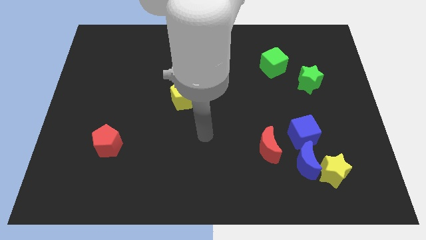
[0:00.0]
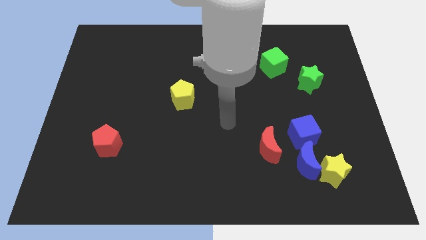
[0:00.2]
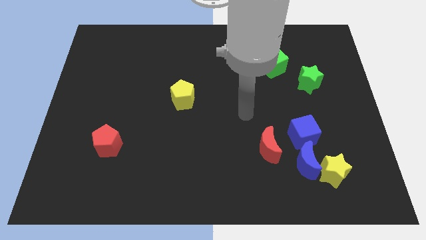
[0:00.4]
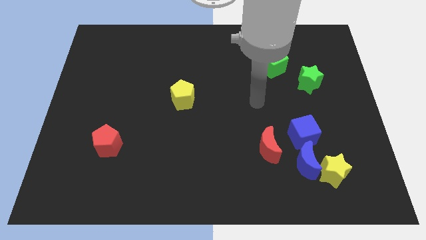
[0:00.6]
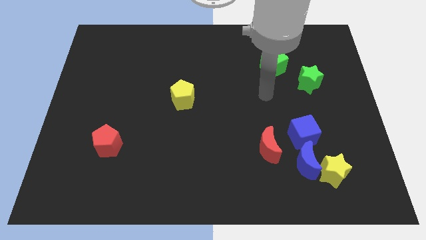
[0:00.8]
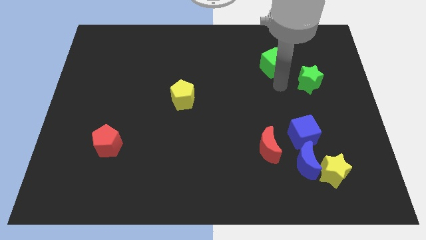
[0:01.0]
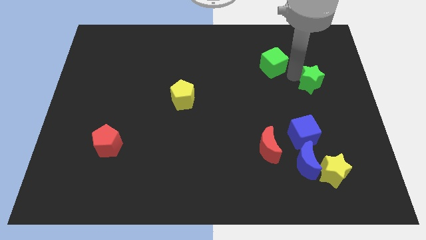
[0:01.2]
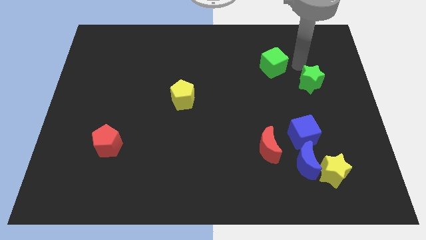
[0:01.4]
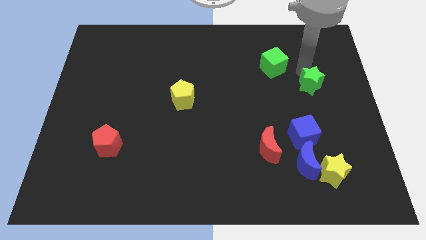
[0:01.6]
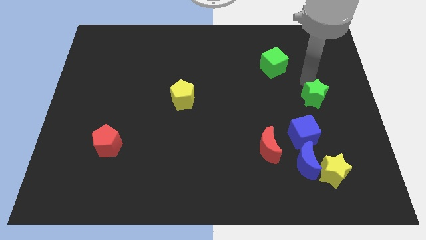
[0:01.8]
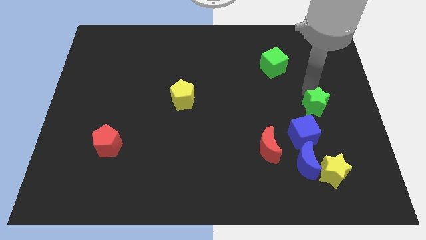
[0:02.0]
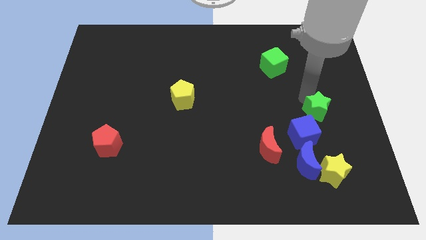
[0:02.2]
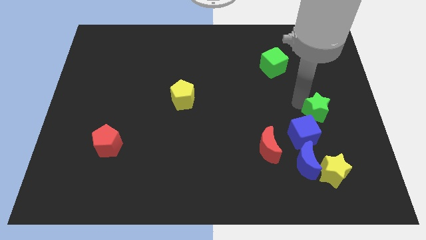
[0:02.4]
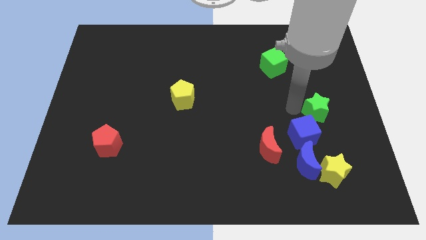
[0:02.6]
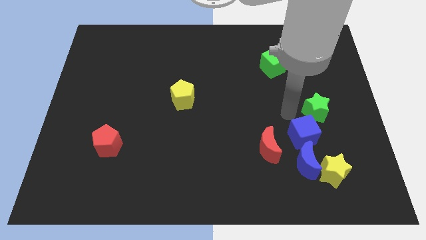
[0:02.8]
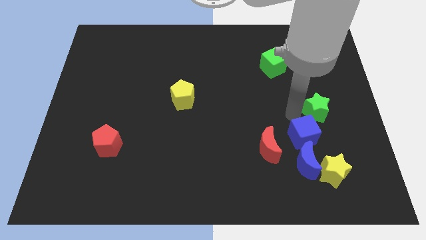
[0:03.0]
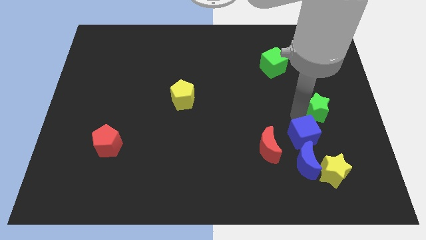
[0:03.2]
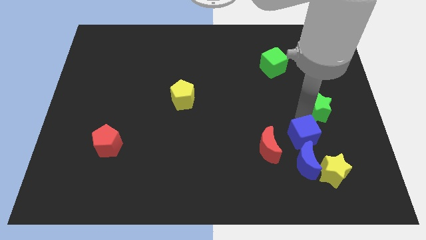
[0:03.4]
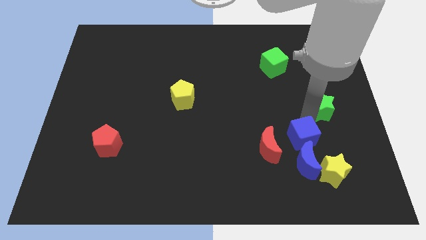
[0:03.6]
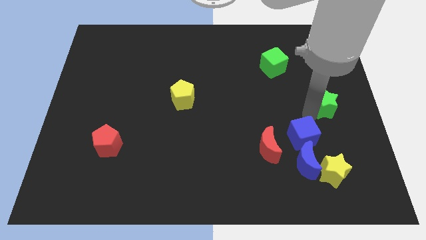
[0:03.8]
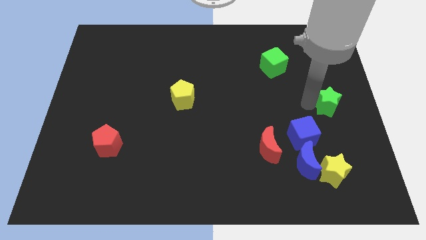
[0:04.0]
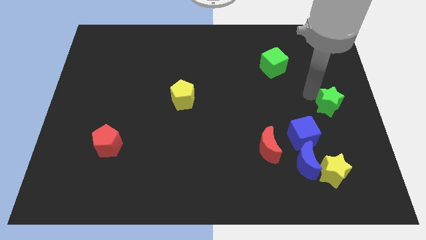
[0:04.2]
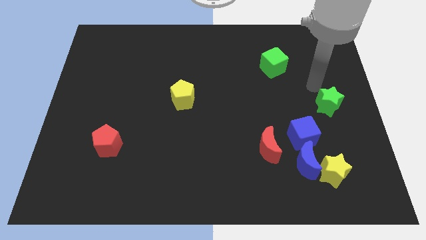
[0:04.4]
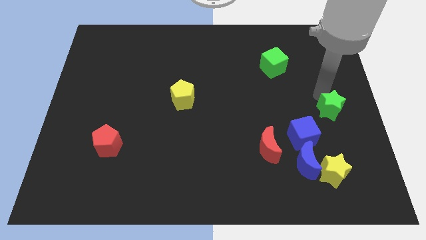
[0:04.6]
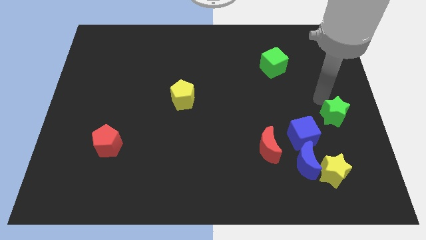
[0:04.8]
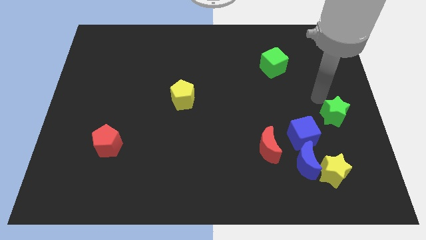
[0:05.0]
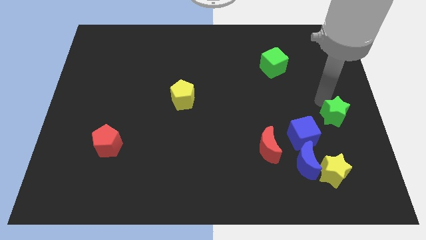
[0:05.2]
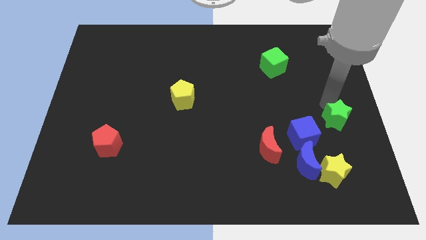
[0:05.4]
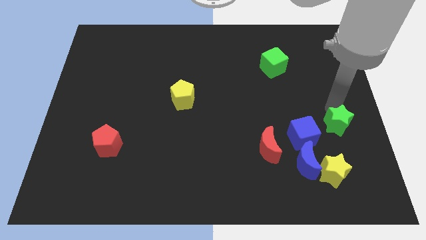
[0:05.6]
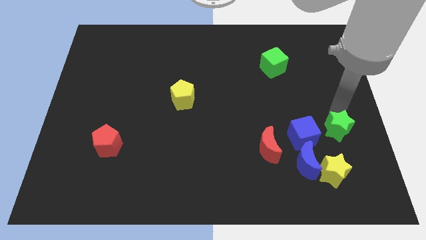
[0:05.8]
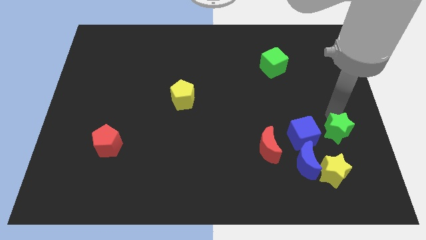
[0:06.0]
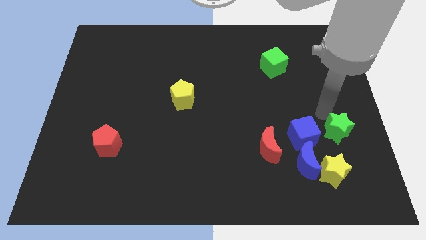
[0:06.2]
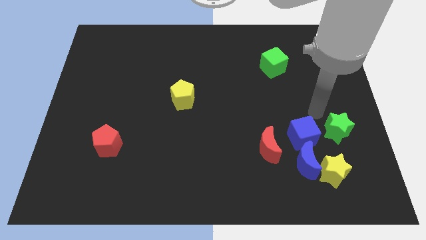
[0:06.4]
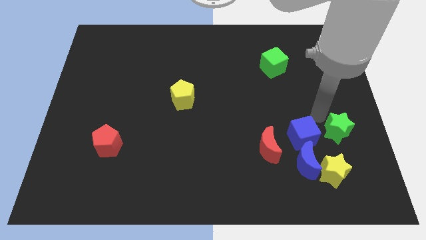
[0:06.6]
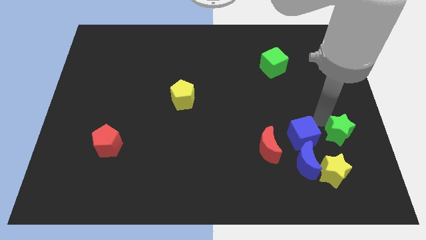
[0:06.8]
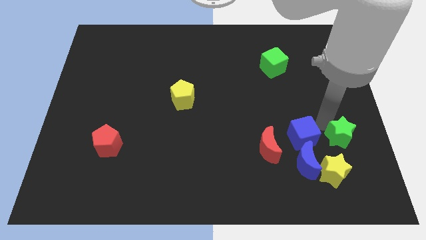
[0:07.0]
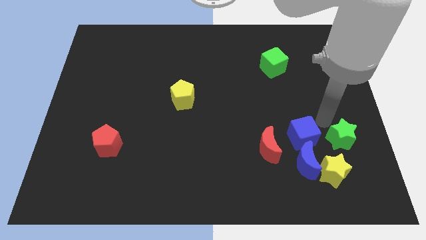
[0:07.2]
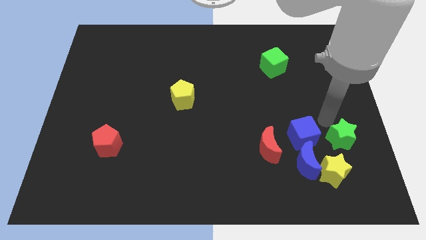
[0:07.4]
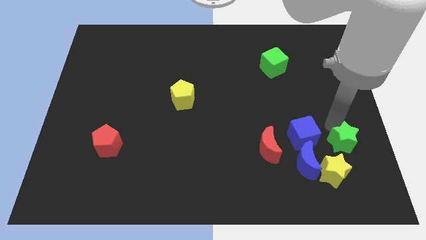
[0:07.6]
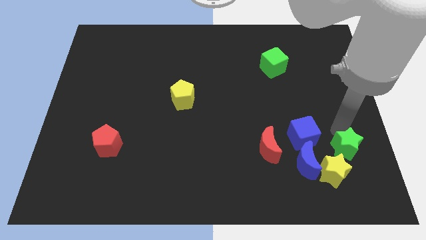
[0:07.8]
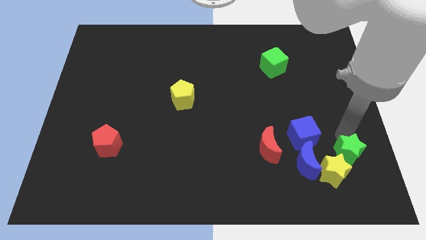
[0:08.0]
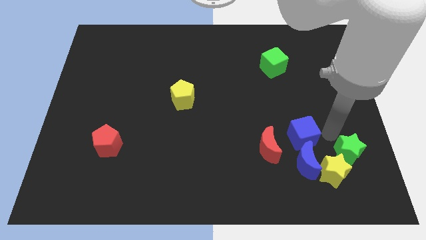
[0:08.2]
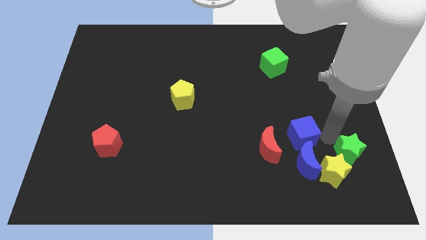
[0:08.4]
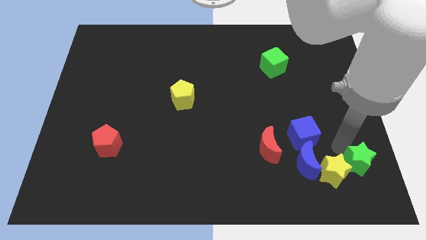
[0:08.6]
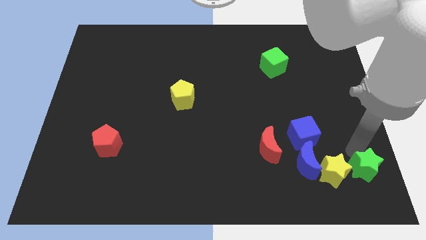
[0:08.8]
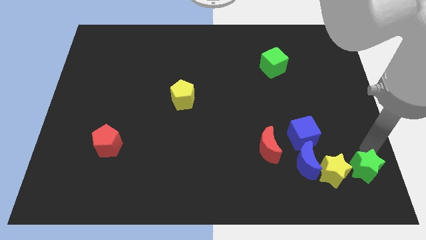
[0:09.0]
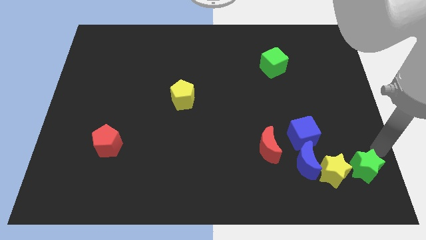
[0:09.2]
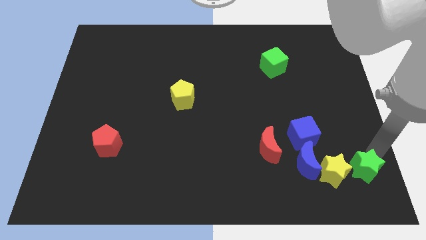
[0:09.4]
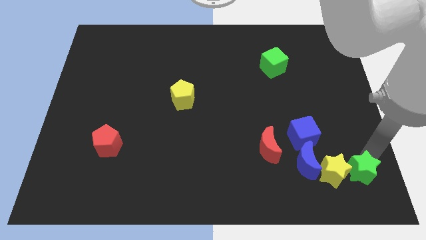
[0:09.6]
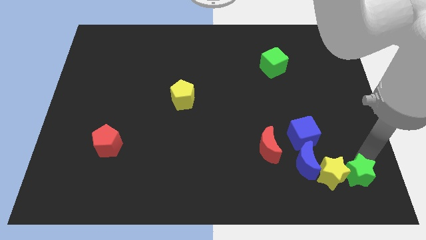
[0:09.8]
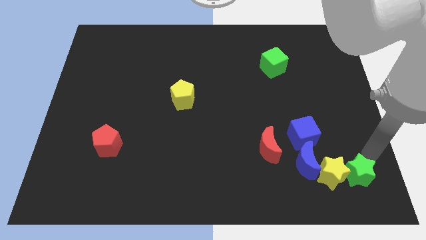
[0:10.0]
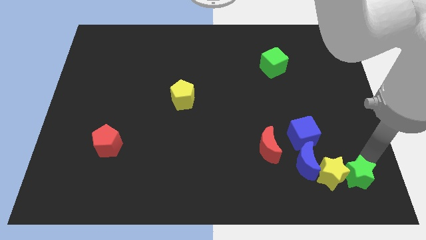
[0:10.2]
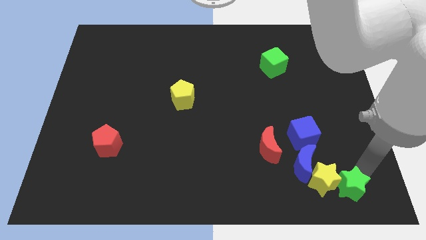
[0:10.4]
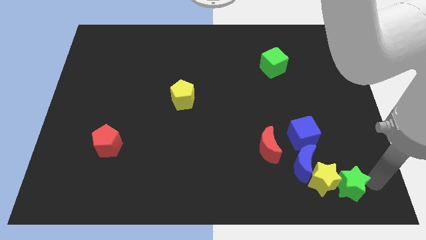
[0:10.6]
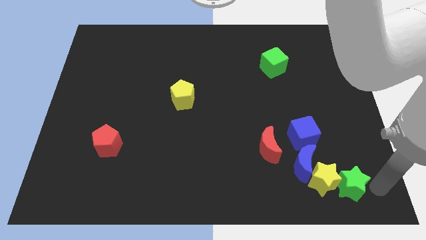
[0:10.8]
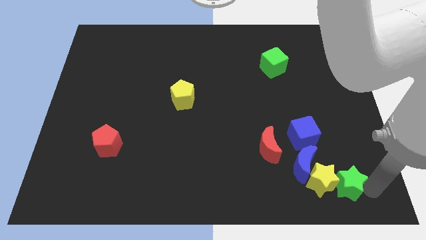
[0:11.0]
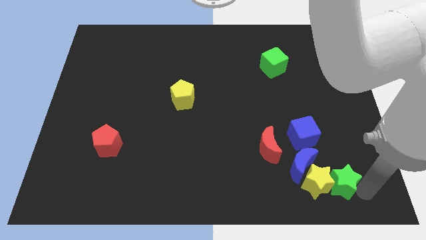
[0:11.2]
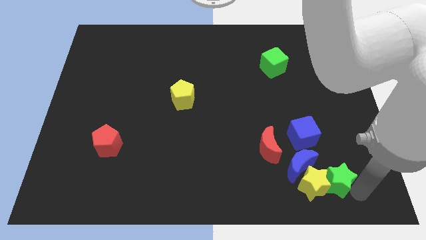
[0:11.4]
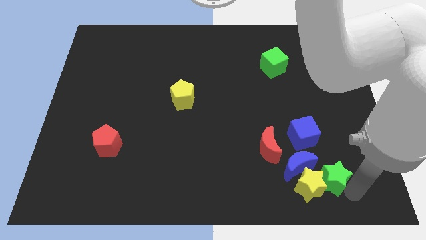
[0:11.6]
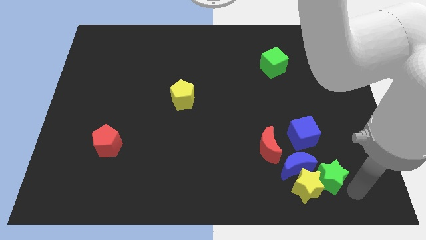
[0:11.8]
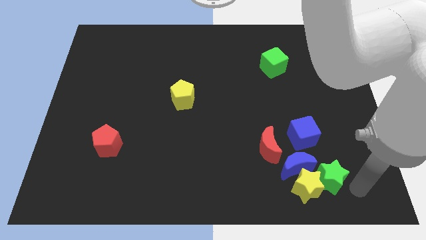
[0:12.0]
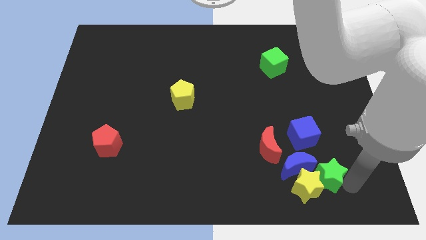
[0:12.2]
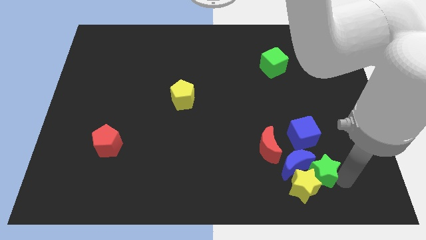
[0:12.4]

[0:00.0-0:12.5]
move the green star to the bottom right side of the red moon

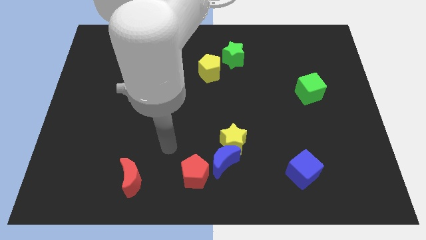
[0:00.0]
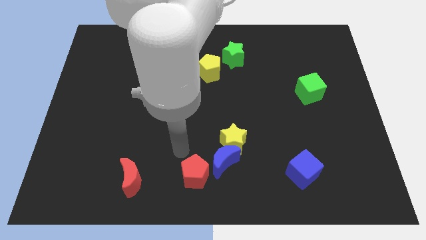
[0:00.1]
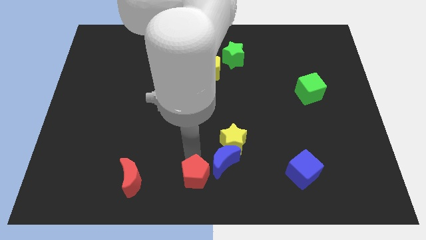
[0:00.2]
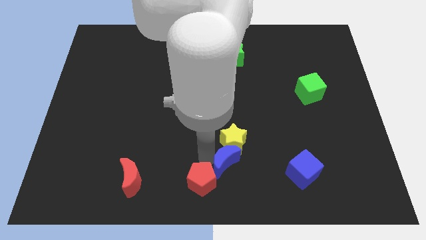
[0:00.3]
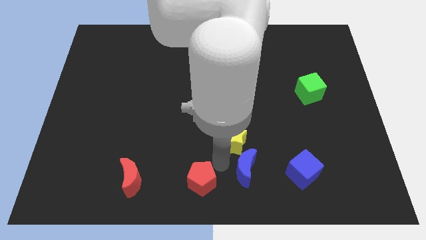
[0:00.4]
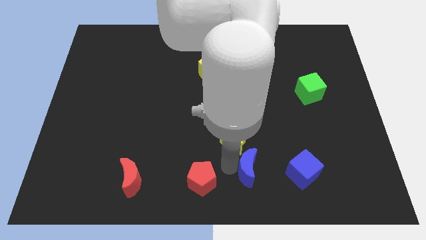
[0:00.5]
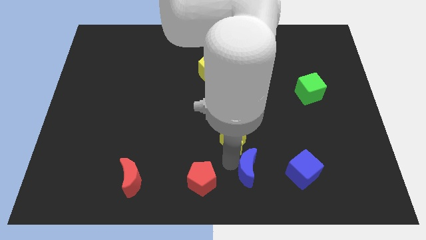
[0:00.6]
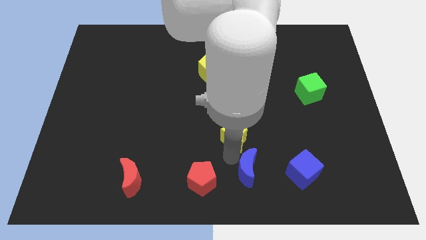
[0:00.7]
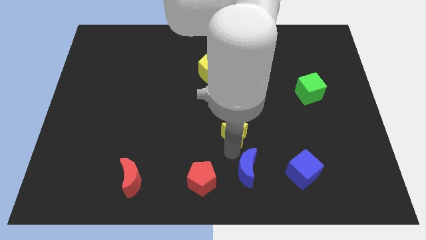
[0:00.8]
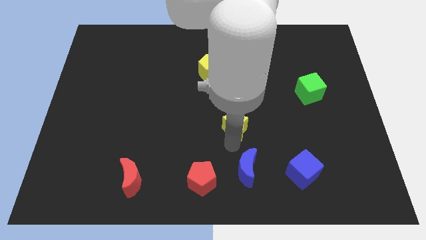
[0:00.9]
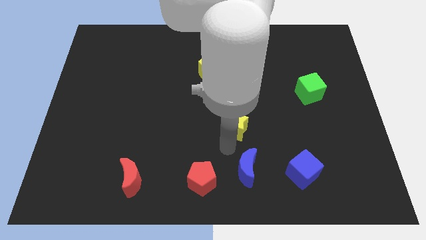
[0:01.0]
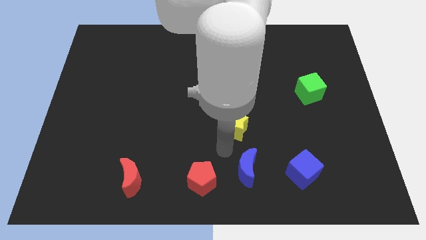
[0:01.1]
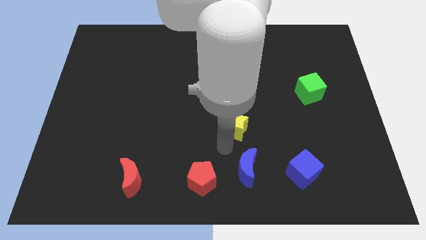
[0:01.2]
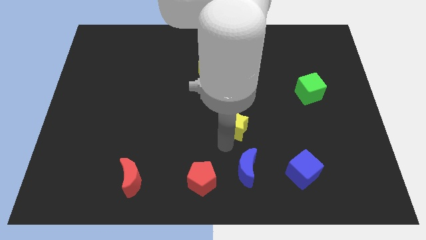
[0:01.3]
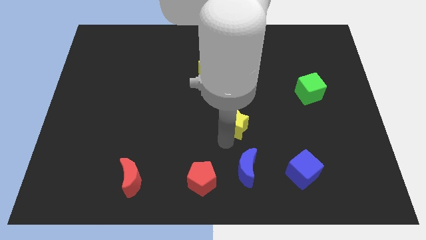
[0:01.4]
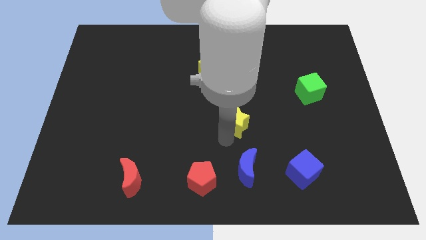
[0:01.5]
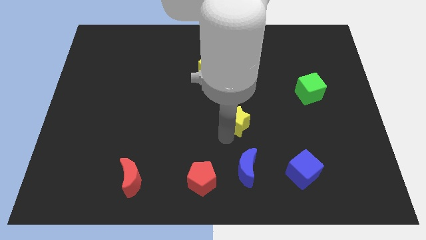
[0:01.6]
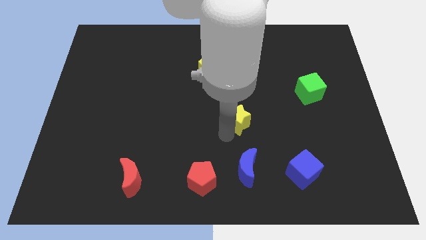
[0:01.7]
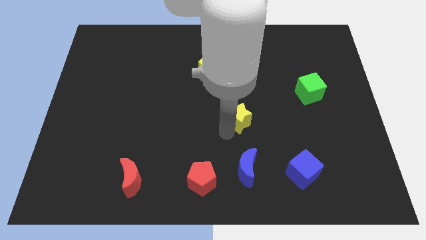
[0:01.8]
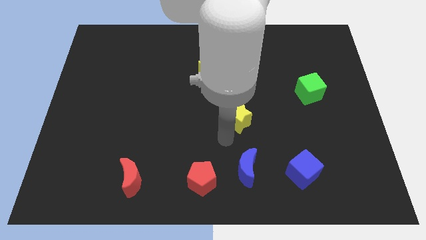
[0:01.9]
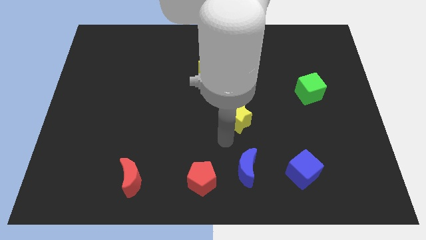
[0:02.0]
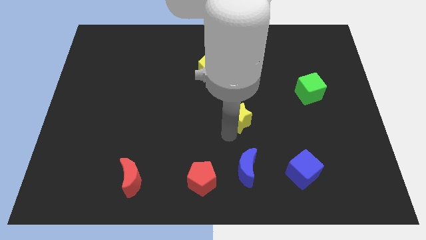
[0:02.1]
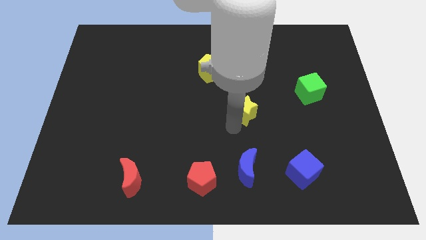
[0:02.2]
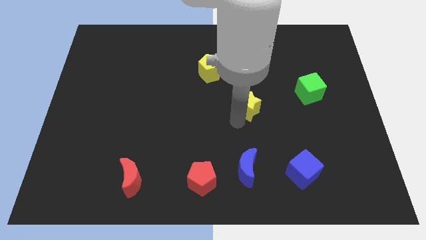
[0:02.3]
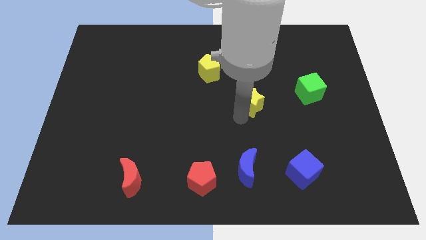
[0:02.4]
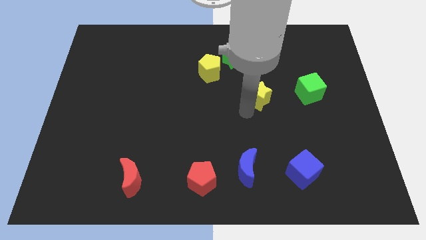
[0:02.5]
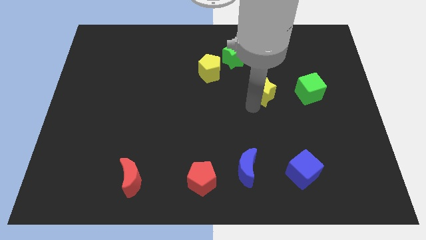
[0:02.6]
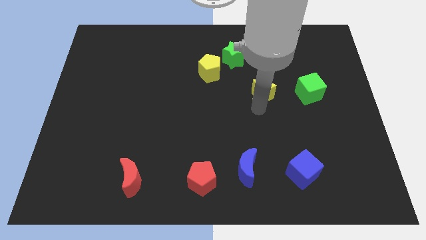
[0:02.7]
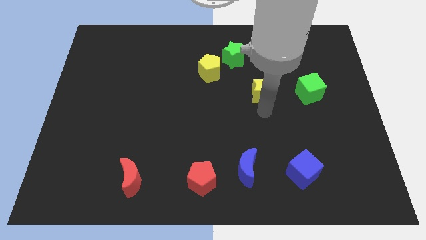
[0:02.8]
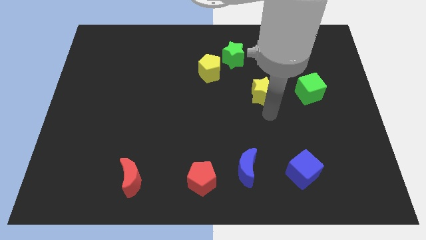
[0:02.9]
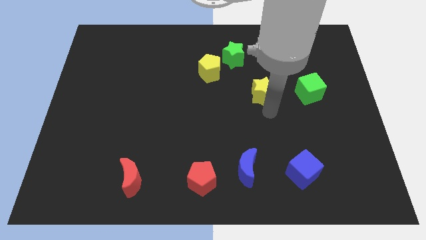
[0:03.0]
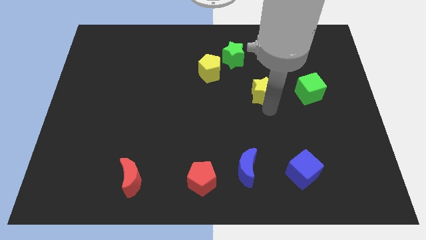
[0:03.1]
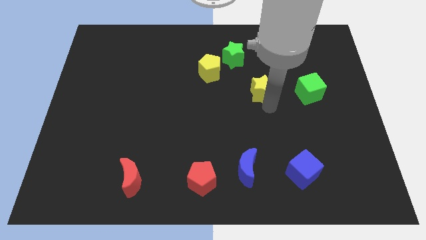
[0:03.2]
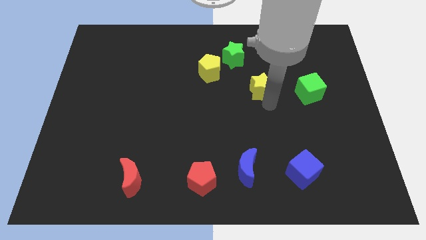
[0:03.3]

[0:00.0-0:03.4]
push the yellow star to the bottom right of the green star
